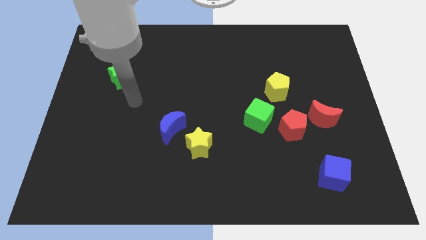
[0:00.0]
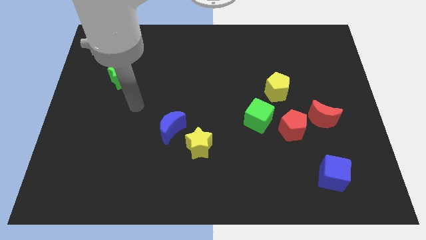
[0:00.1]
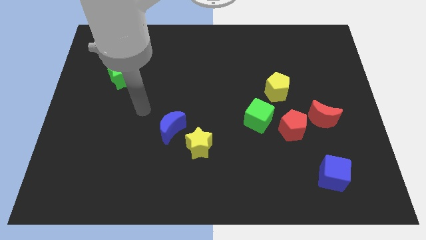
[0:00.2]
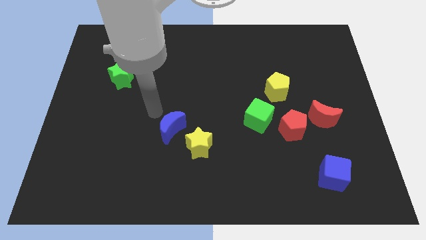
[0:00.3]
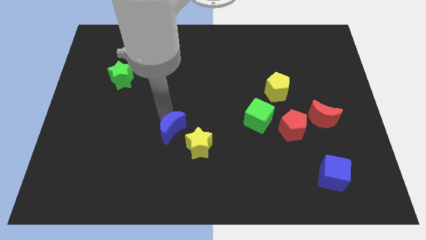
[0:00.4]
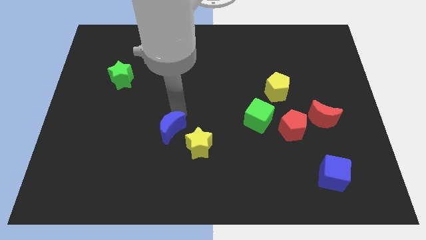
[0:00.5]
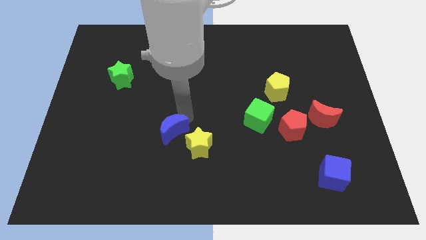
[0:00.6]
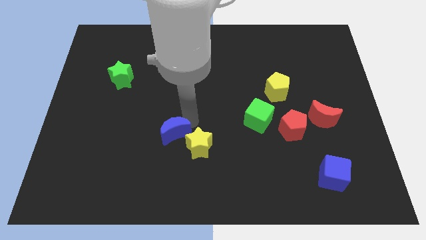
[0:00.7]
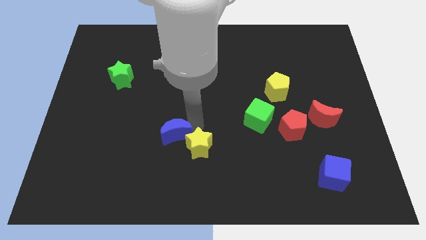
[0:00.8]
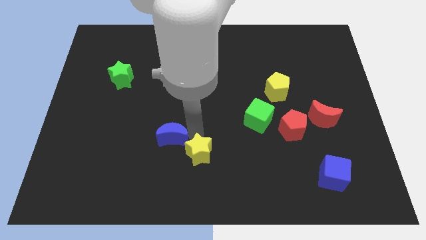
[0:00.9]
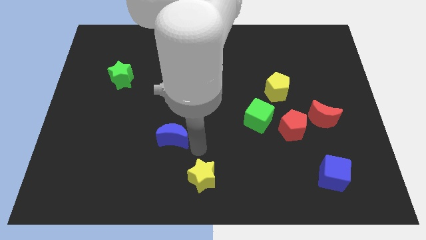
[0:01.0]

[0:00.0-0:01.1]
separate the blue moon from the yellow star

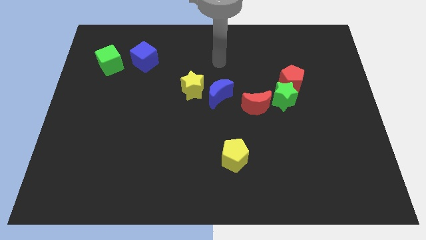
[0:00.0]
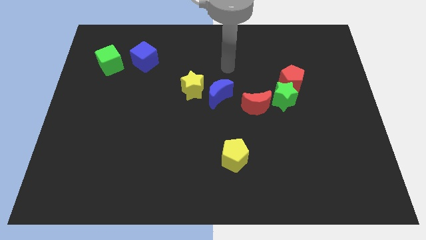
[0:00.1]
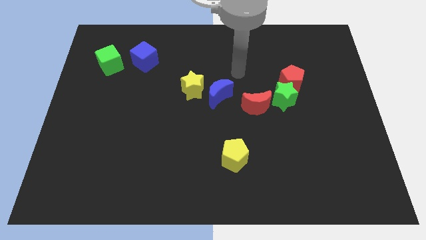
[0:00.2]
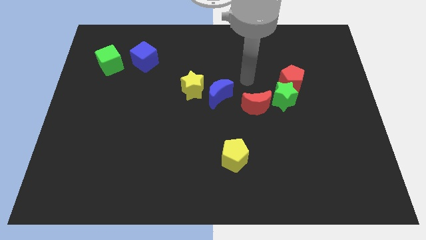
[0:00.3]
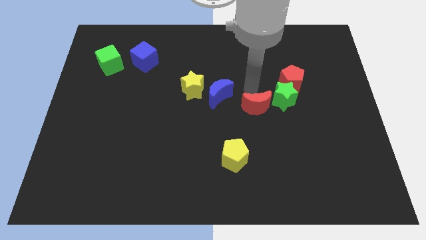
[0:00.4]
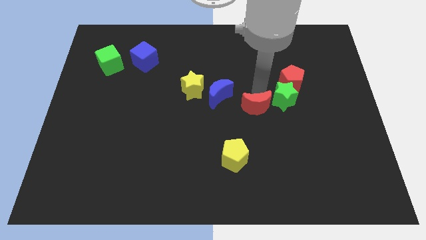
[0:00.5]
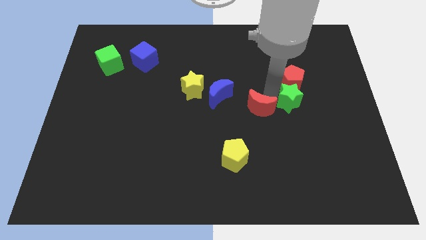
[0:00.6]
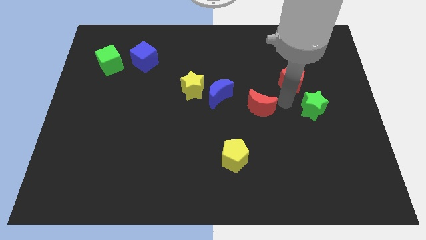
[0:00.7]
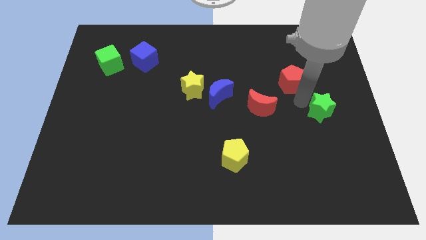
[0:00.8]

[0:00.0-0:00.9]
separate the red pentagon from the green star

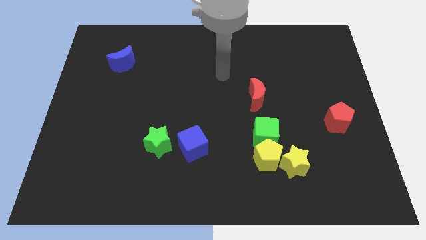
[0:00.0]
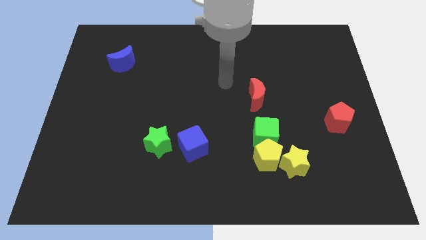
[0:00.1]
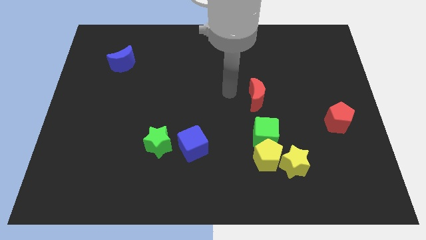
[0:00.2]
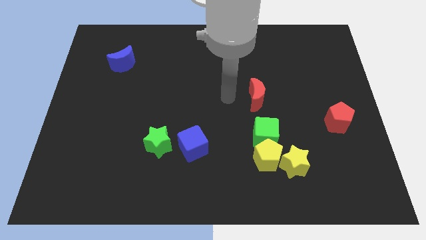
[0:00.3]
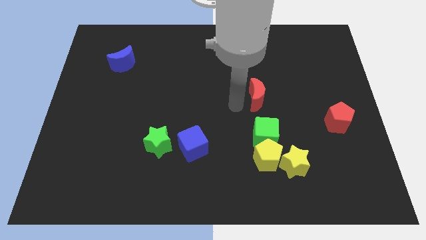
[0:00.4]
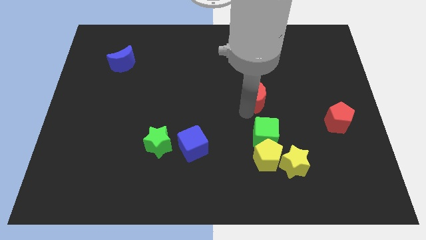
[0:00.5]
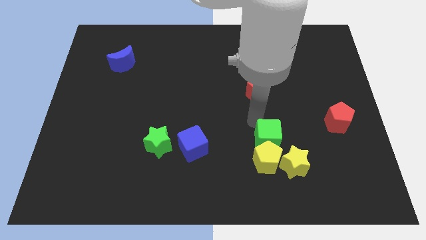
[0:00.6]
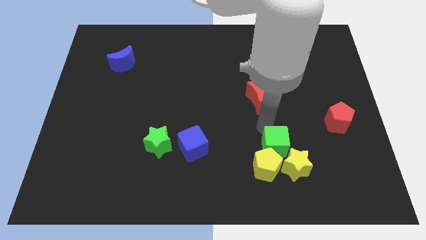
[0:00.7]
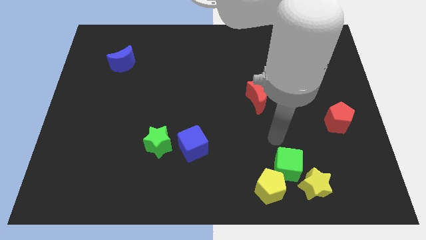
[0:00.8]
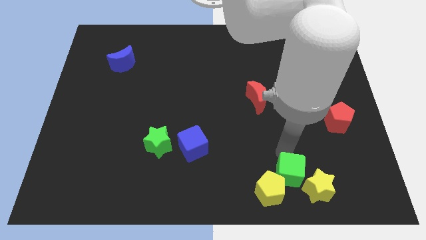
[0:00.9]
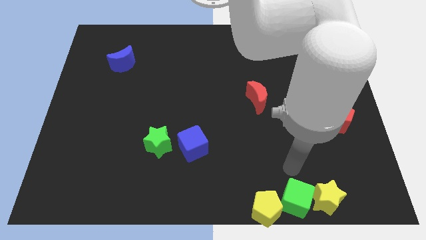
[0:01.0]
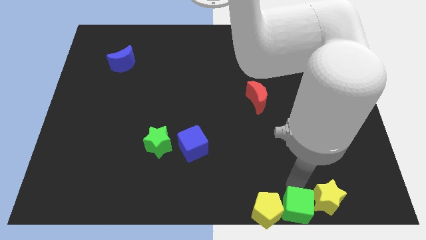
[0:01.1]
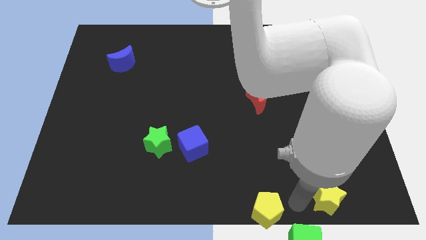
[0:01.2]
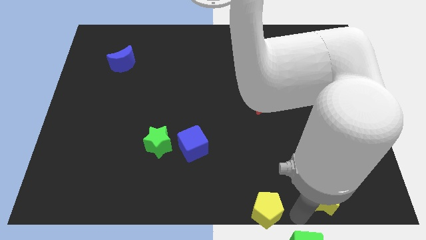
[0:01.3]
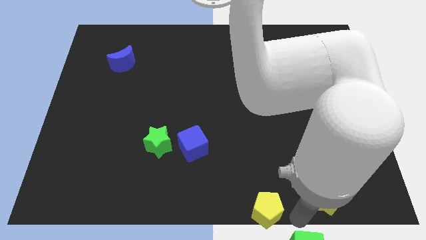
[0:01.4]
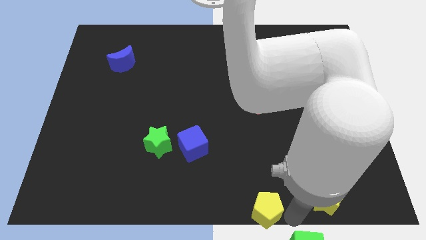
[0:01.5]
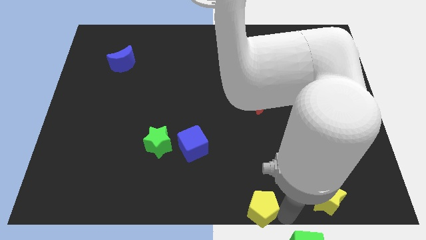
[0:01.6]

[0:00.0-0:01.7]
separate the yellow pentagon from the yellow star and green cube

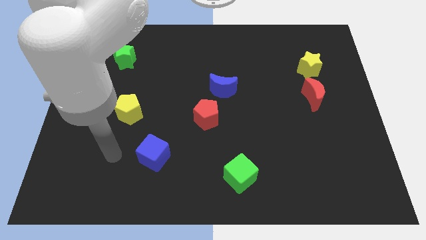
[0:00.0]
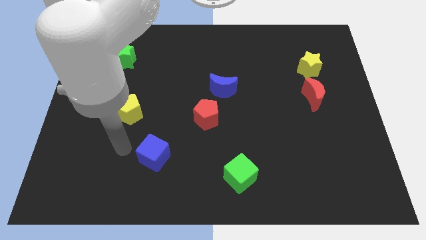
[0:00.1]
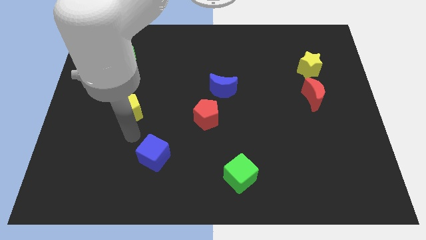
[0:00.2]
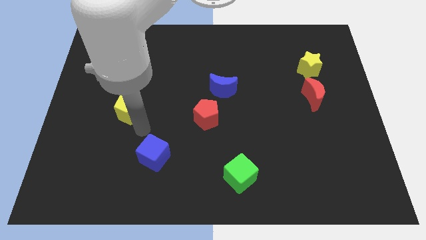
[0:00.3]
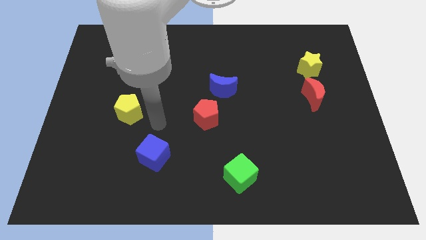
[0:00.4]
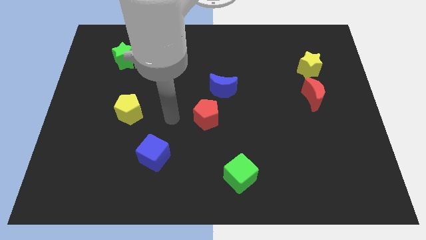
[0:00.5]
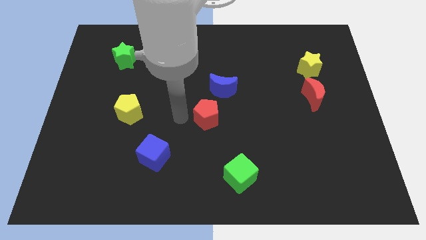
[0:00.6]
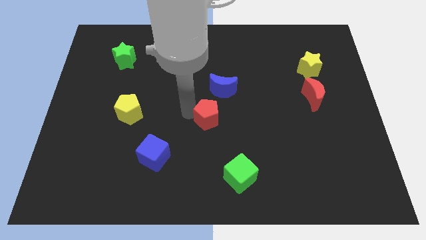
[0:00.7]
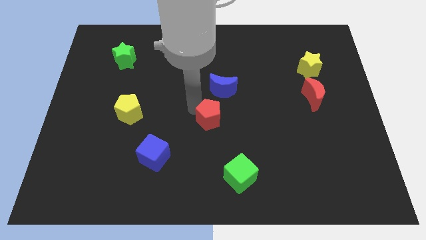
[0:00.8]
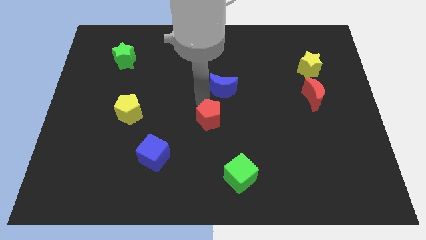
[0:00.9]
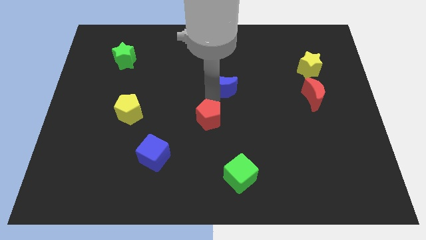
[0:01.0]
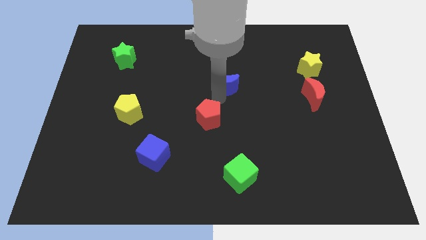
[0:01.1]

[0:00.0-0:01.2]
move the red pentagon away from the blue moon

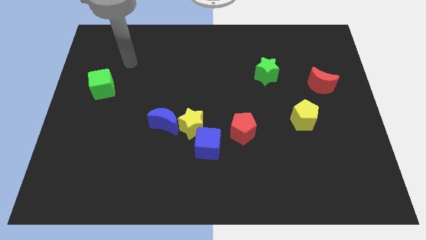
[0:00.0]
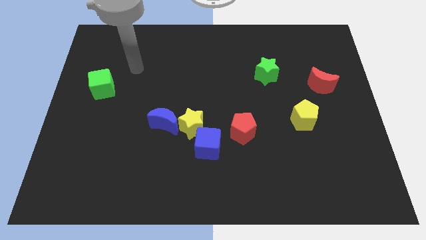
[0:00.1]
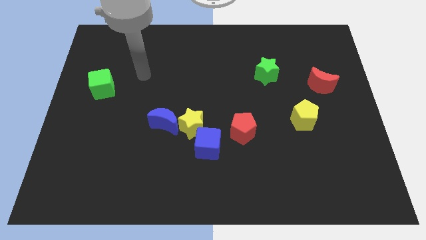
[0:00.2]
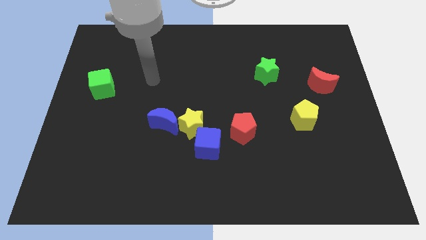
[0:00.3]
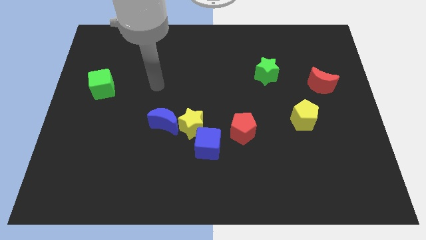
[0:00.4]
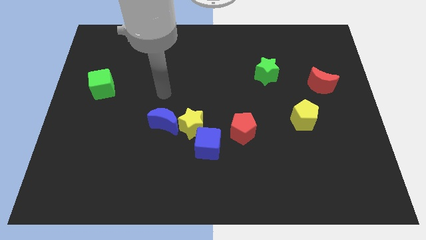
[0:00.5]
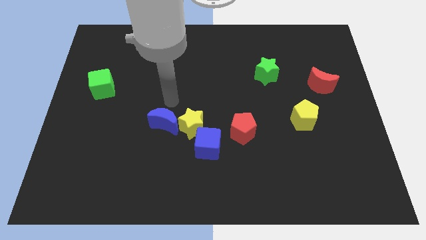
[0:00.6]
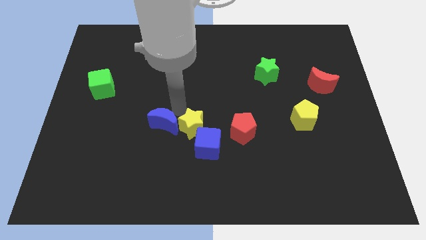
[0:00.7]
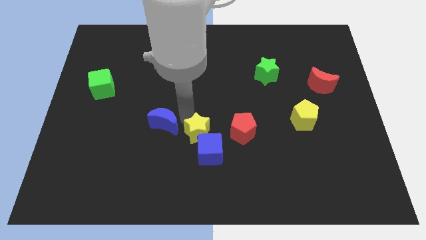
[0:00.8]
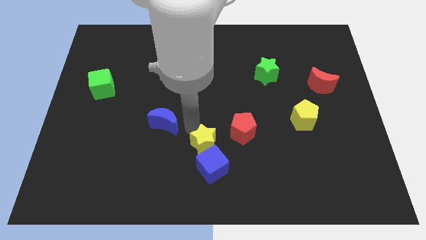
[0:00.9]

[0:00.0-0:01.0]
pull the blue moon apart from the yellow star

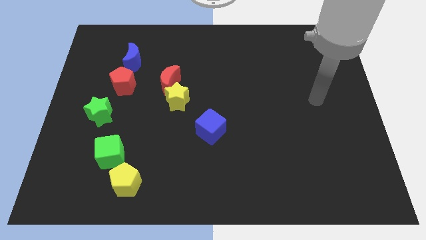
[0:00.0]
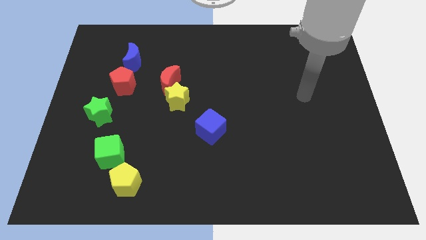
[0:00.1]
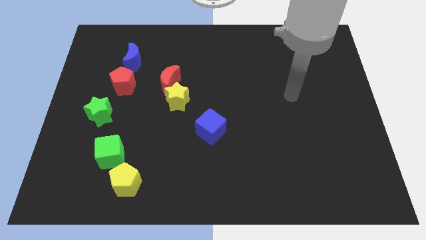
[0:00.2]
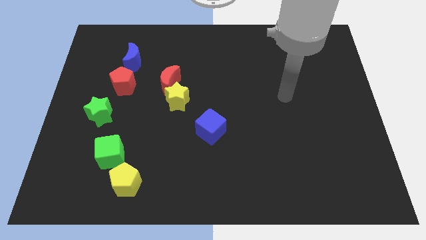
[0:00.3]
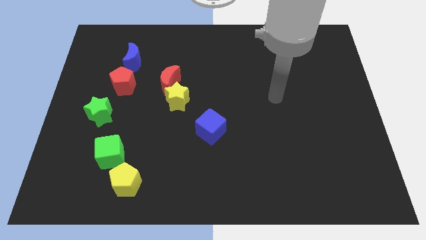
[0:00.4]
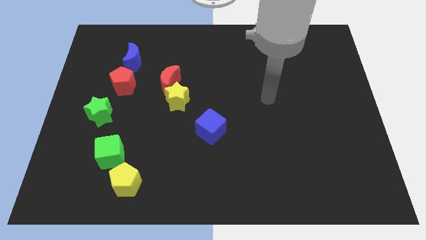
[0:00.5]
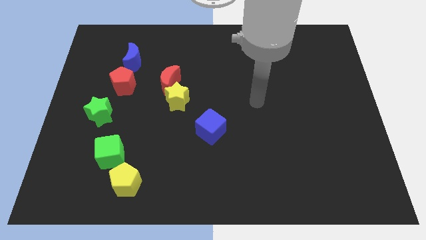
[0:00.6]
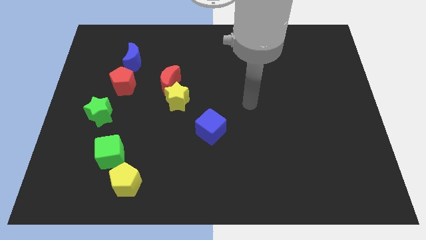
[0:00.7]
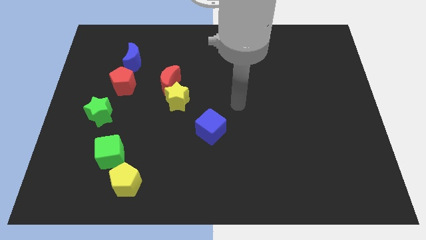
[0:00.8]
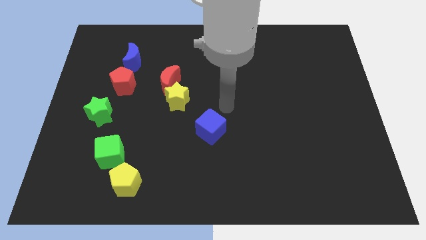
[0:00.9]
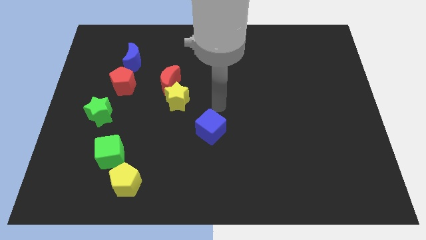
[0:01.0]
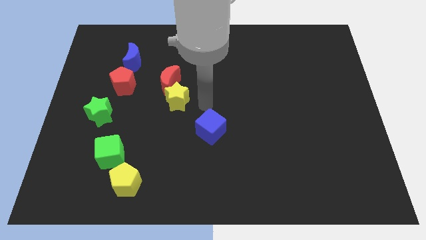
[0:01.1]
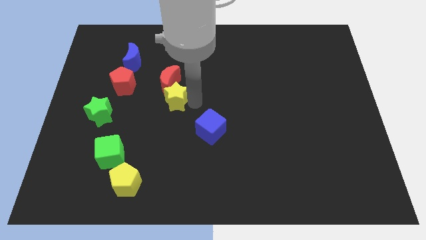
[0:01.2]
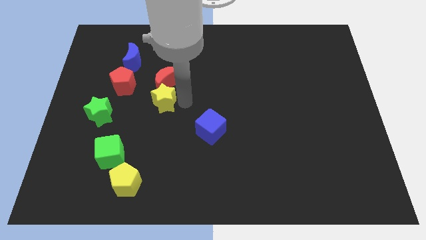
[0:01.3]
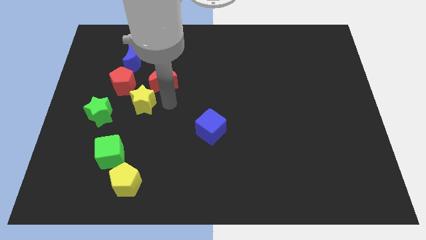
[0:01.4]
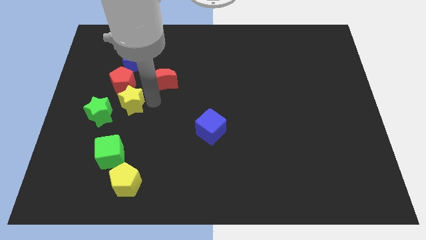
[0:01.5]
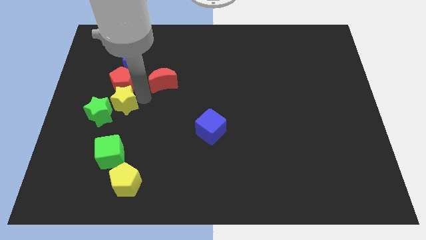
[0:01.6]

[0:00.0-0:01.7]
separate the red moon from the yellow star

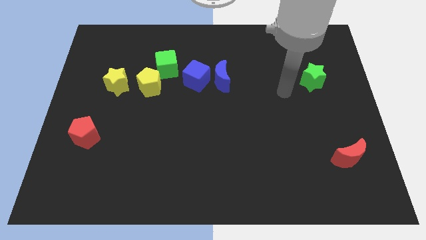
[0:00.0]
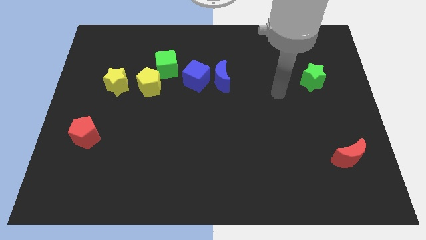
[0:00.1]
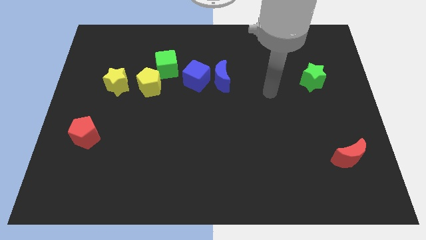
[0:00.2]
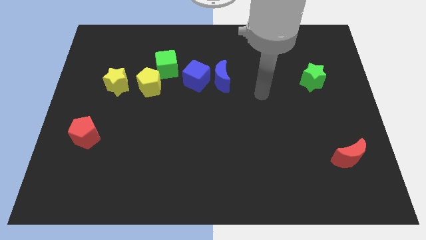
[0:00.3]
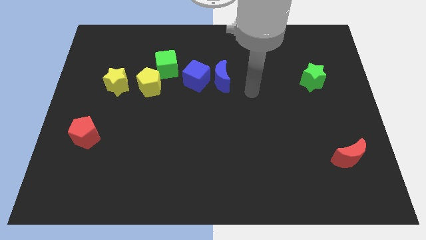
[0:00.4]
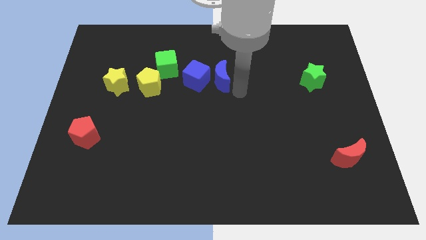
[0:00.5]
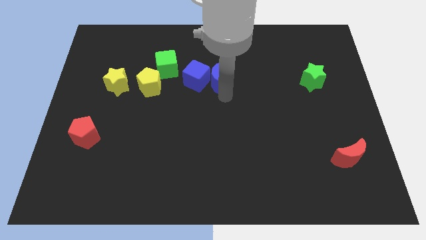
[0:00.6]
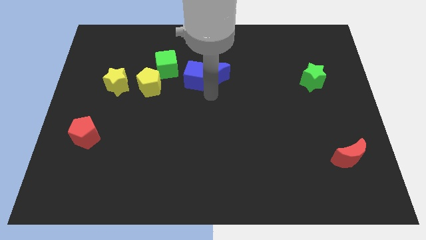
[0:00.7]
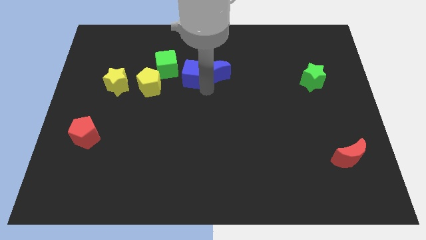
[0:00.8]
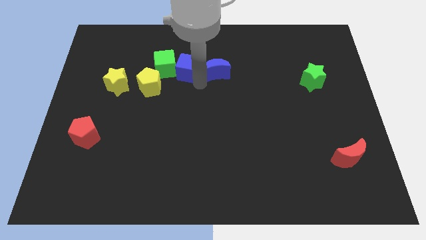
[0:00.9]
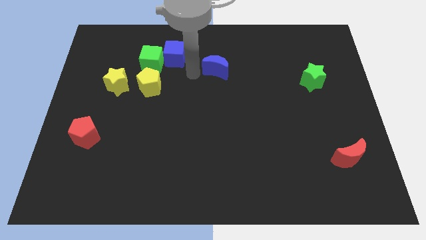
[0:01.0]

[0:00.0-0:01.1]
separate the blue moon from the blue cube

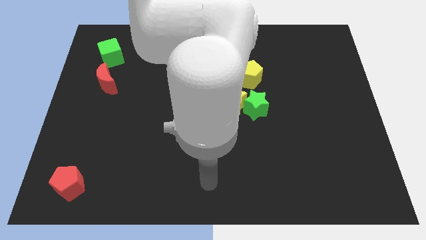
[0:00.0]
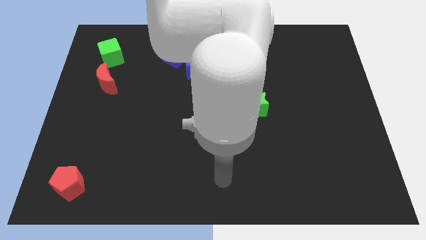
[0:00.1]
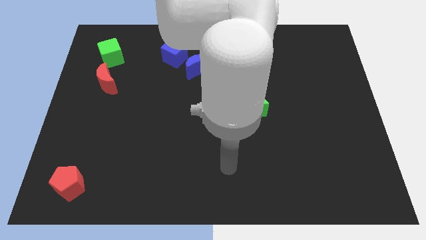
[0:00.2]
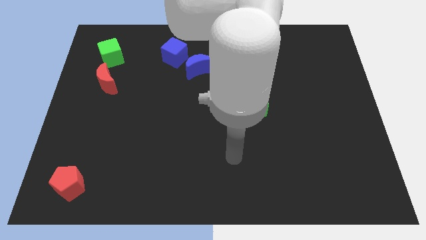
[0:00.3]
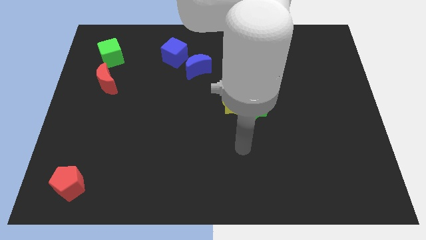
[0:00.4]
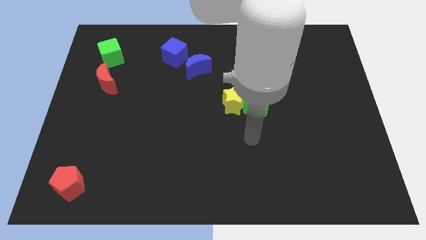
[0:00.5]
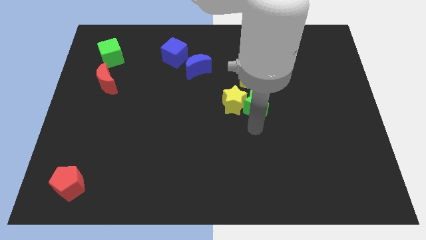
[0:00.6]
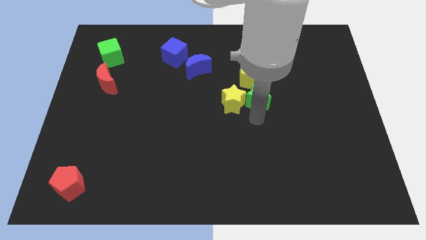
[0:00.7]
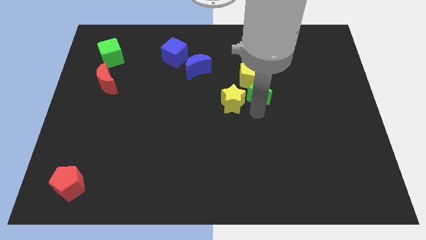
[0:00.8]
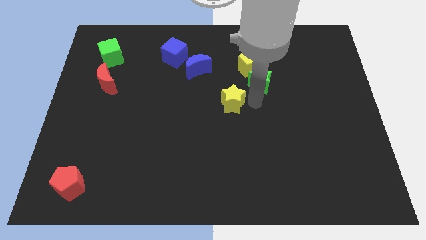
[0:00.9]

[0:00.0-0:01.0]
separate the yellow star from the green star and yellow pentagon
